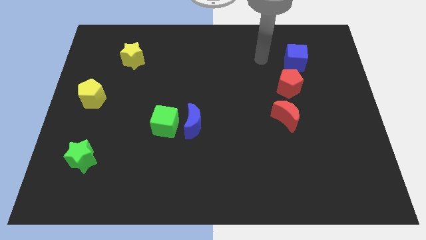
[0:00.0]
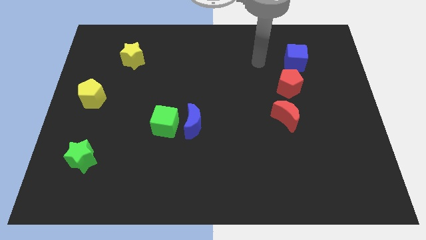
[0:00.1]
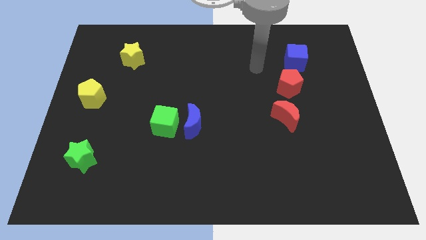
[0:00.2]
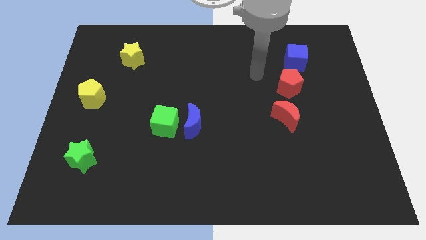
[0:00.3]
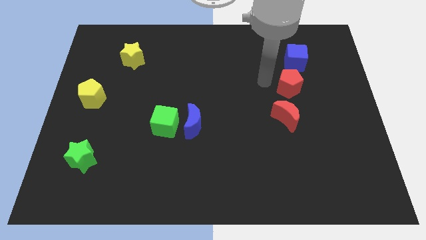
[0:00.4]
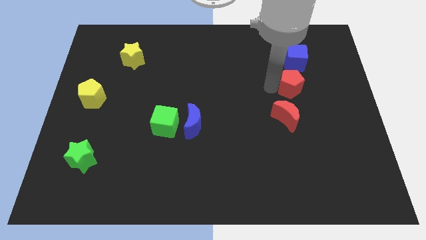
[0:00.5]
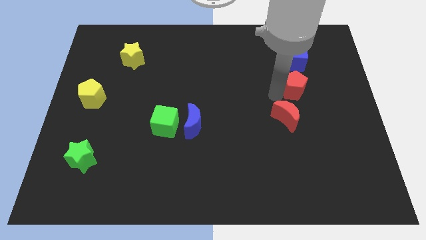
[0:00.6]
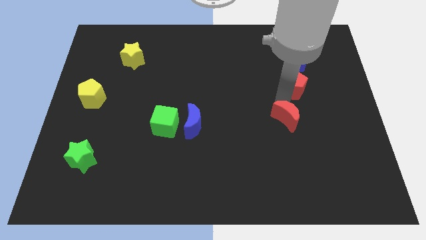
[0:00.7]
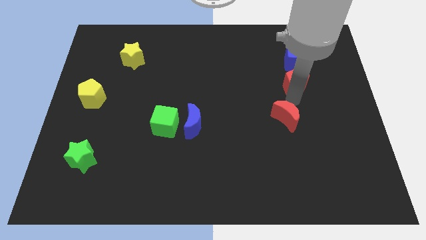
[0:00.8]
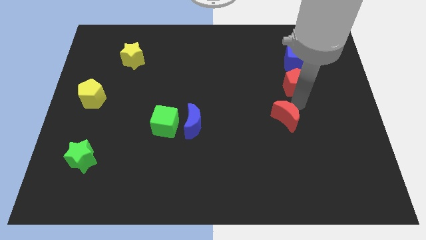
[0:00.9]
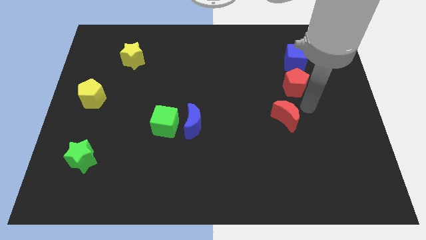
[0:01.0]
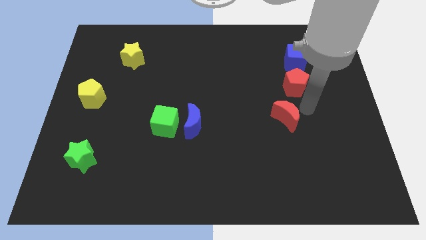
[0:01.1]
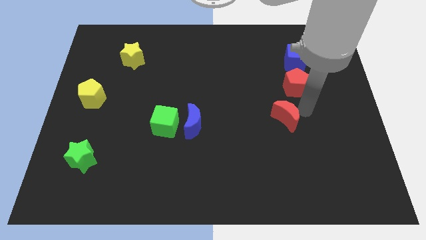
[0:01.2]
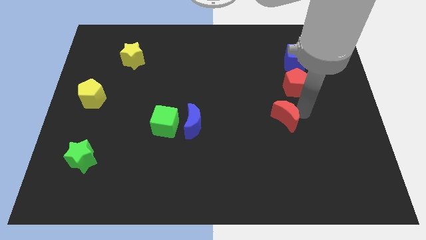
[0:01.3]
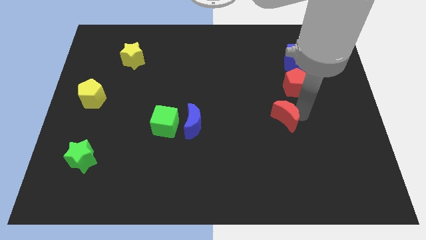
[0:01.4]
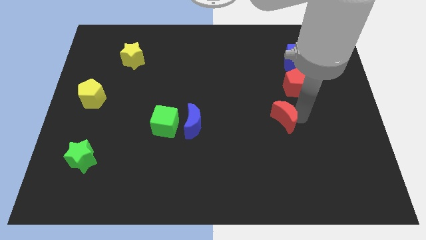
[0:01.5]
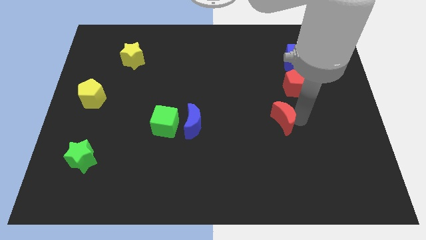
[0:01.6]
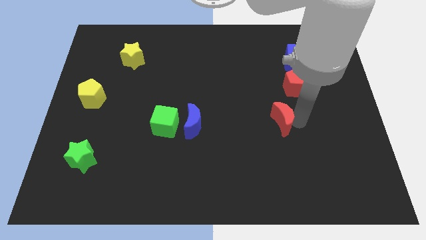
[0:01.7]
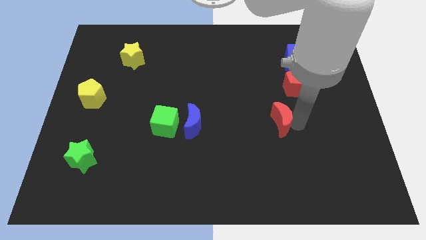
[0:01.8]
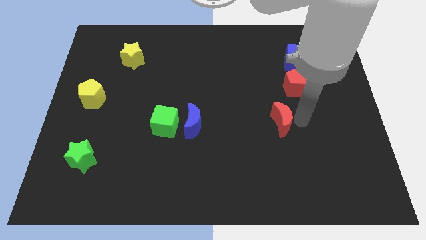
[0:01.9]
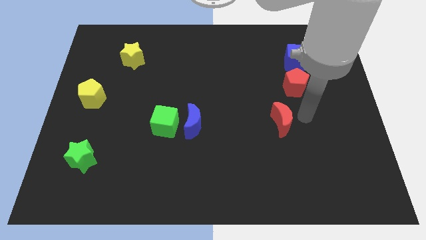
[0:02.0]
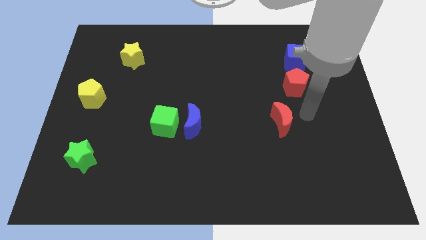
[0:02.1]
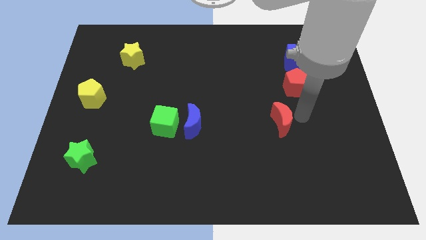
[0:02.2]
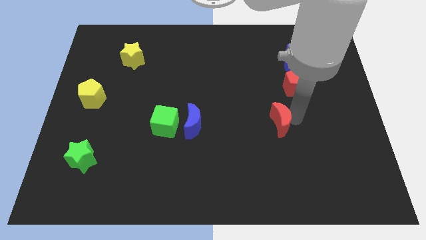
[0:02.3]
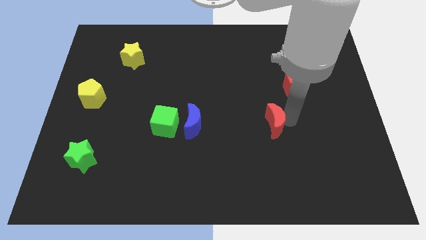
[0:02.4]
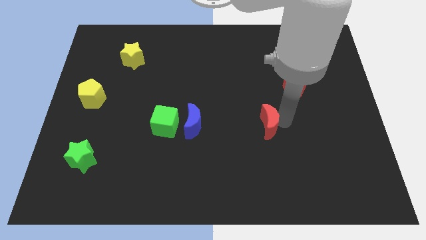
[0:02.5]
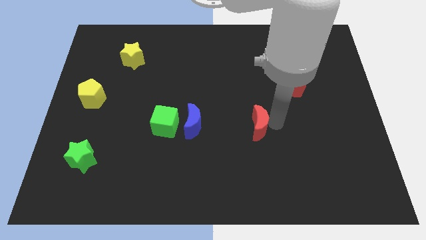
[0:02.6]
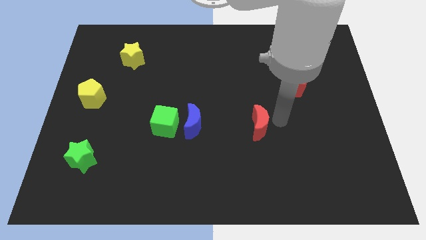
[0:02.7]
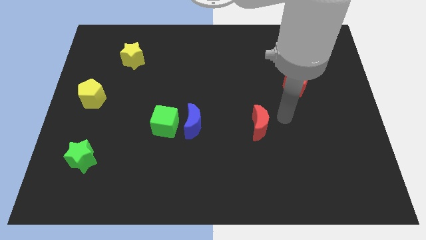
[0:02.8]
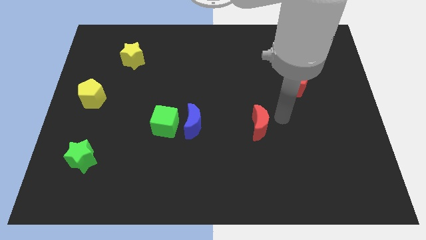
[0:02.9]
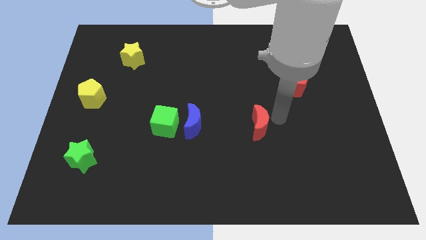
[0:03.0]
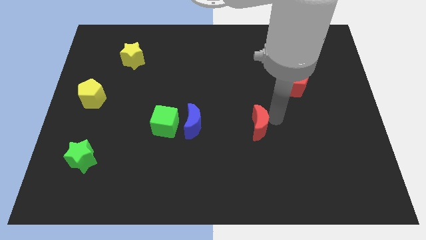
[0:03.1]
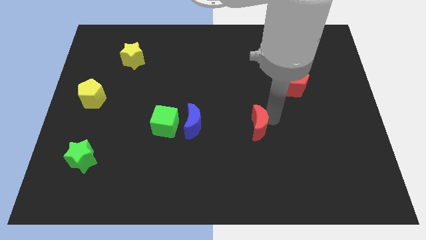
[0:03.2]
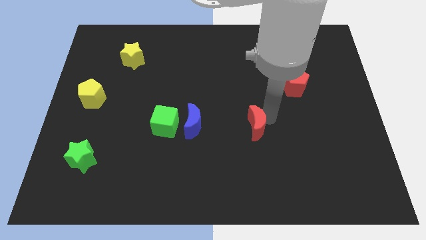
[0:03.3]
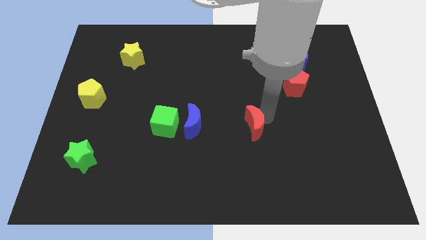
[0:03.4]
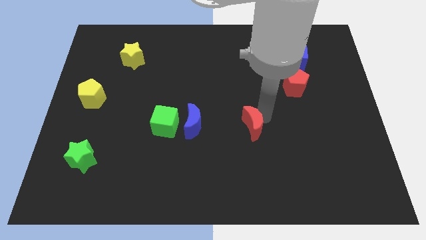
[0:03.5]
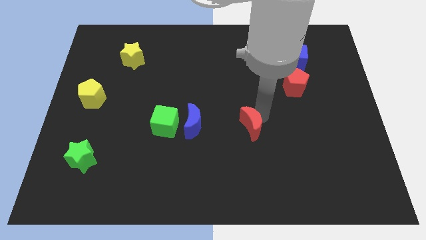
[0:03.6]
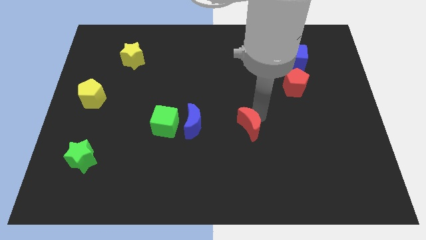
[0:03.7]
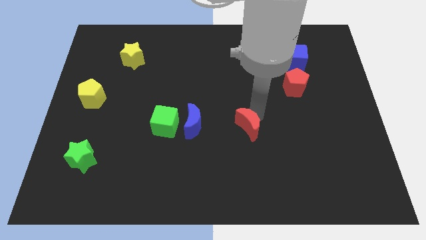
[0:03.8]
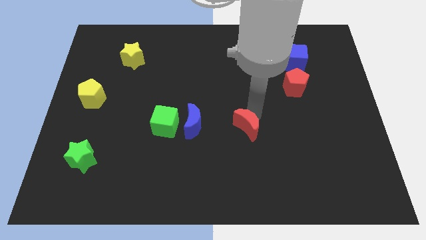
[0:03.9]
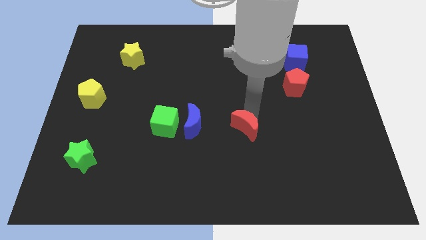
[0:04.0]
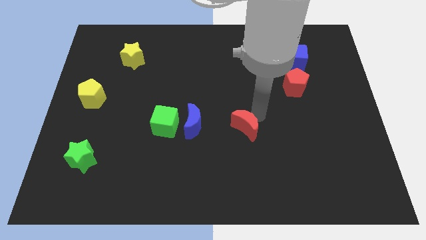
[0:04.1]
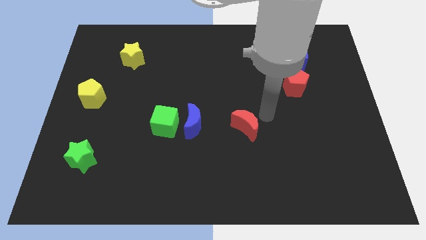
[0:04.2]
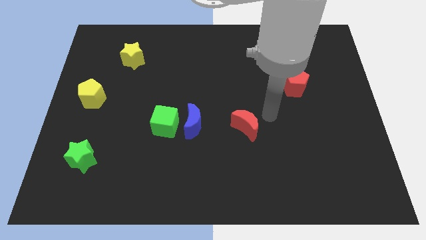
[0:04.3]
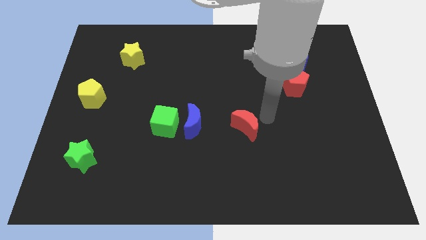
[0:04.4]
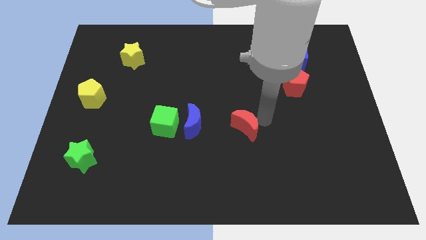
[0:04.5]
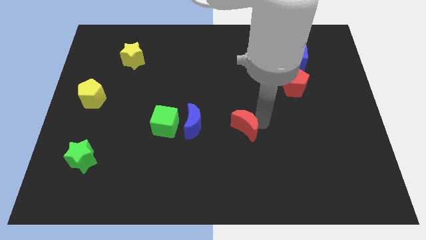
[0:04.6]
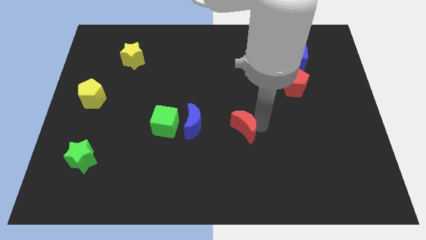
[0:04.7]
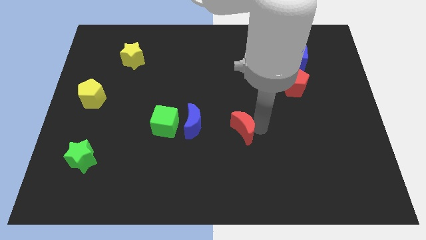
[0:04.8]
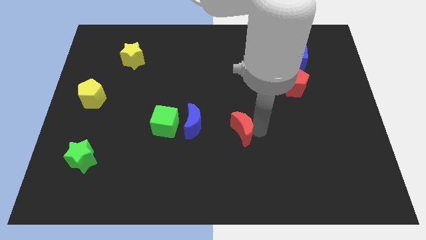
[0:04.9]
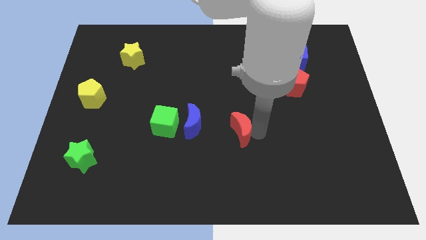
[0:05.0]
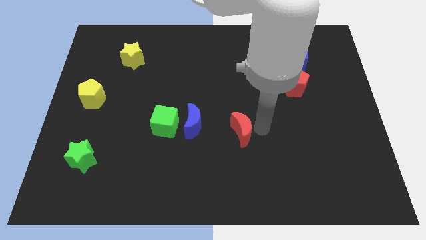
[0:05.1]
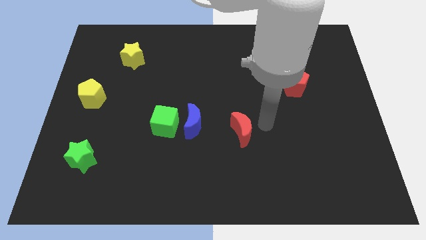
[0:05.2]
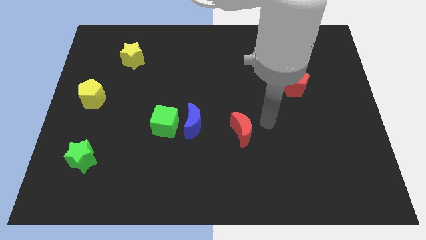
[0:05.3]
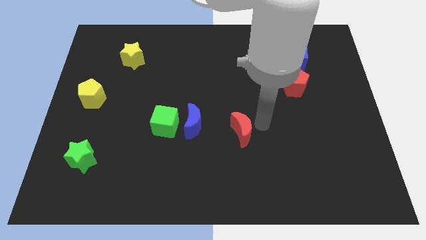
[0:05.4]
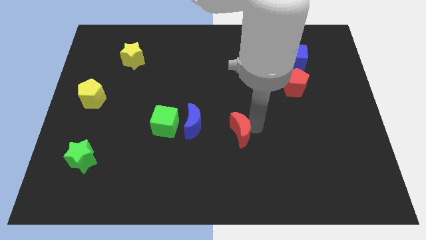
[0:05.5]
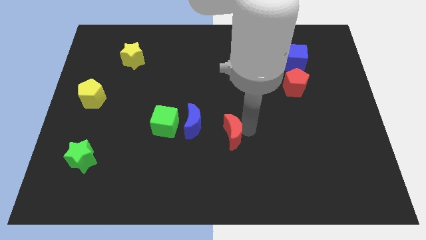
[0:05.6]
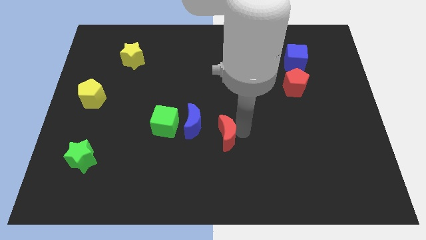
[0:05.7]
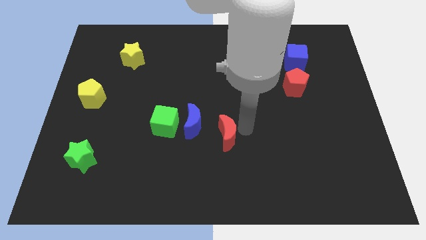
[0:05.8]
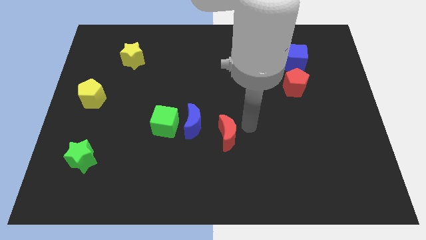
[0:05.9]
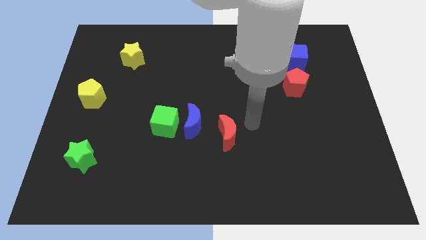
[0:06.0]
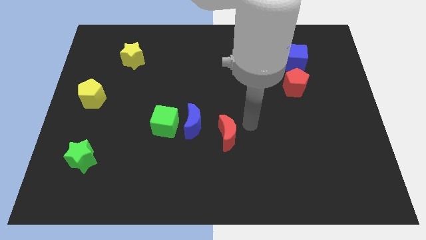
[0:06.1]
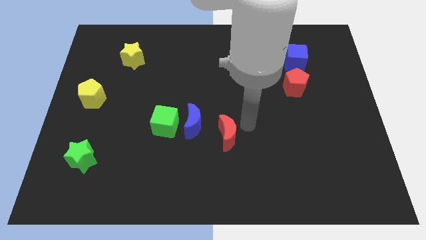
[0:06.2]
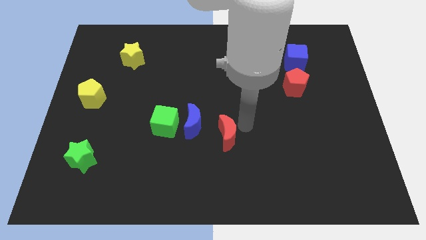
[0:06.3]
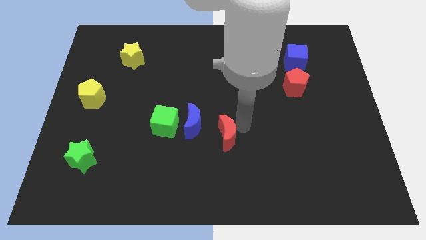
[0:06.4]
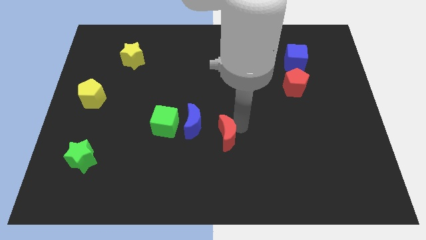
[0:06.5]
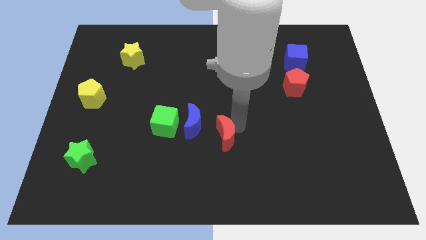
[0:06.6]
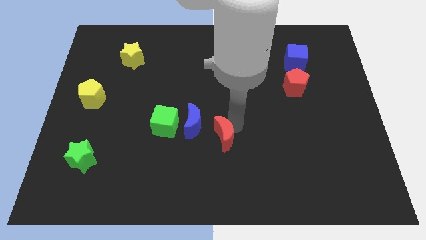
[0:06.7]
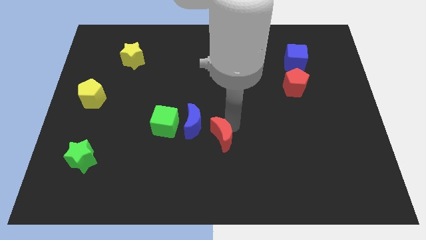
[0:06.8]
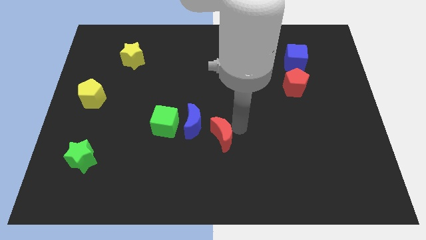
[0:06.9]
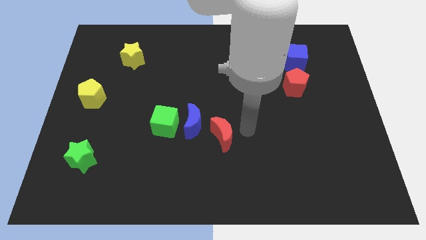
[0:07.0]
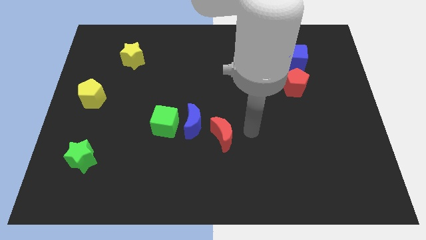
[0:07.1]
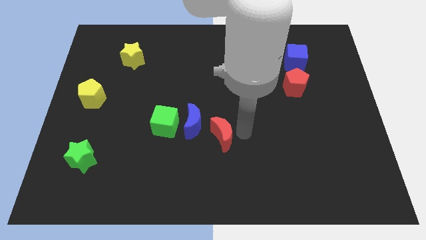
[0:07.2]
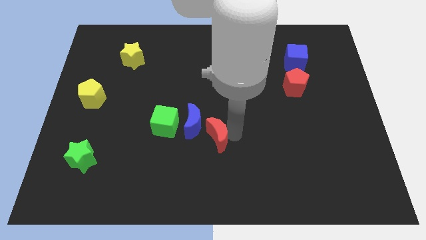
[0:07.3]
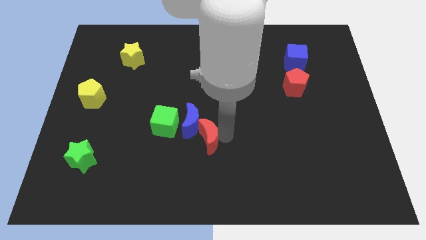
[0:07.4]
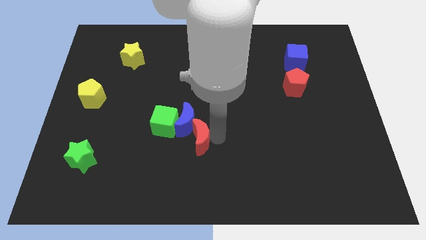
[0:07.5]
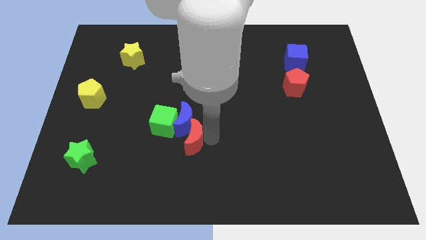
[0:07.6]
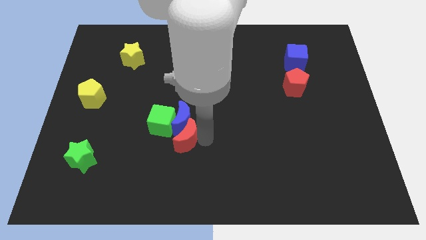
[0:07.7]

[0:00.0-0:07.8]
move the red moon left
